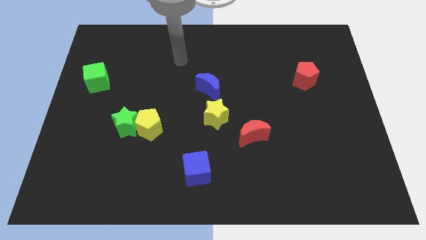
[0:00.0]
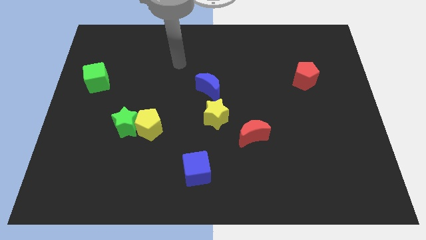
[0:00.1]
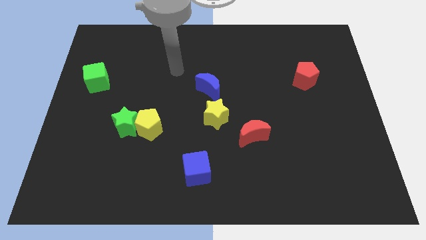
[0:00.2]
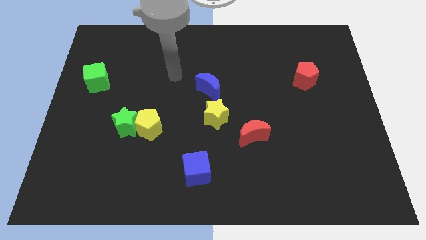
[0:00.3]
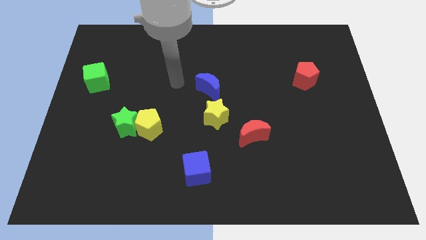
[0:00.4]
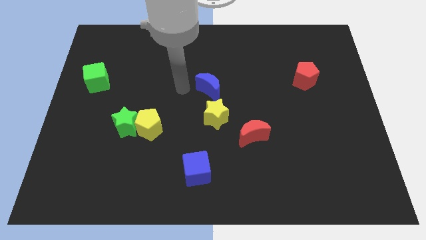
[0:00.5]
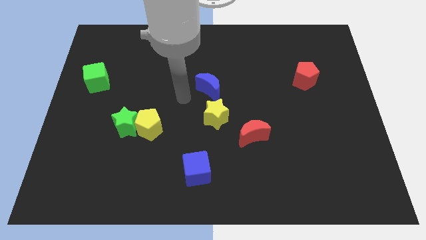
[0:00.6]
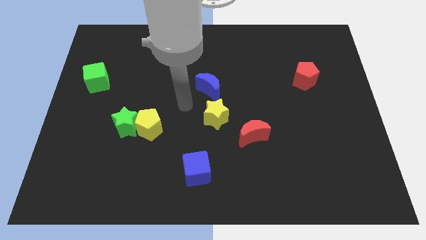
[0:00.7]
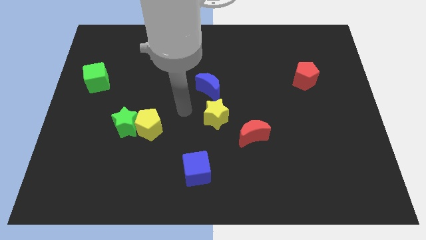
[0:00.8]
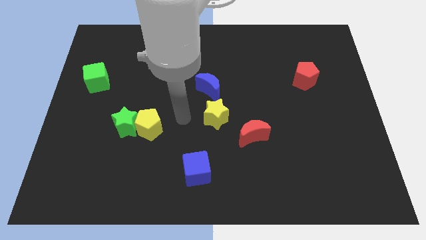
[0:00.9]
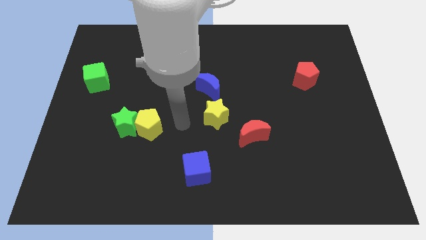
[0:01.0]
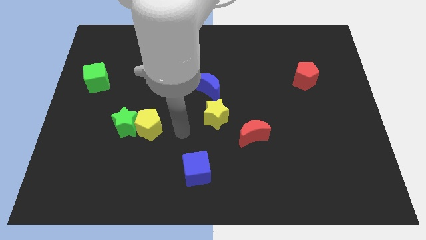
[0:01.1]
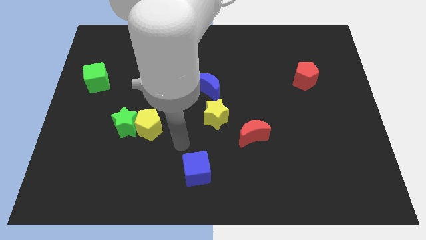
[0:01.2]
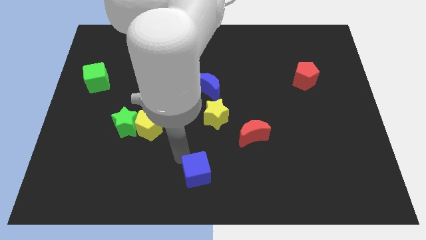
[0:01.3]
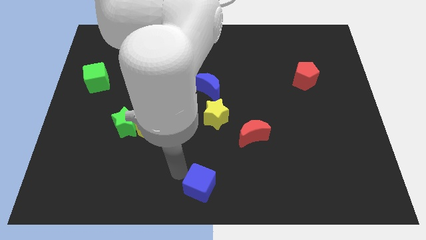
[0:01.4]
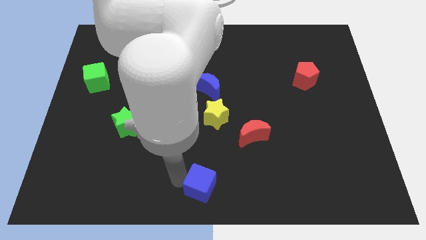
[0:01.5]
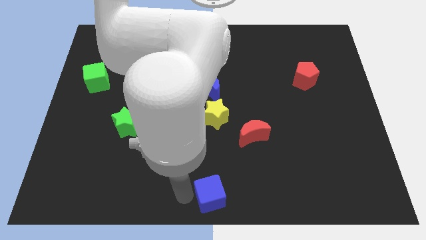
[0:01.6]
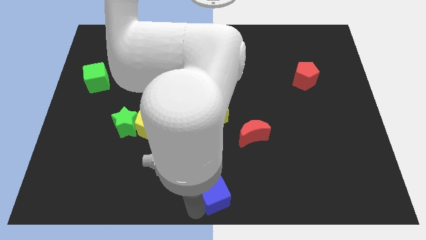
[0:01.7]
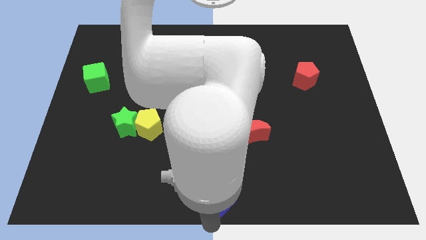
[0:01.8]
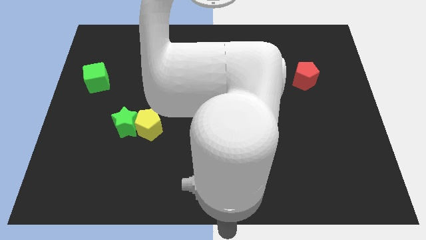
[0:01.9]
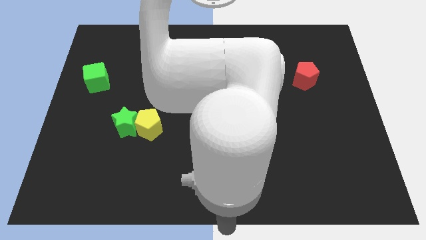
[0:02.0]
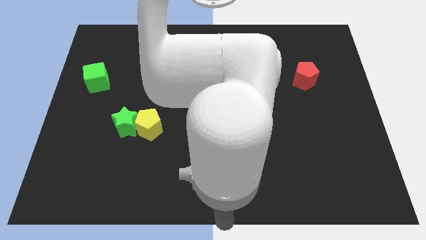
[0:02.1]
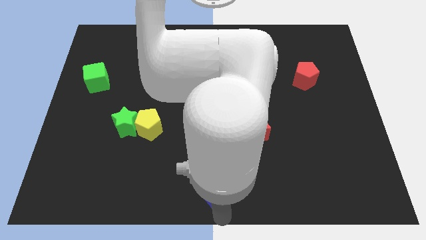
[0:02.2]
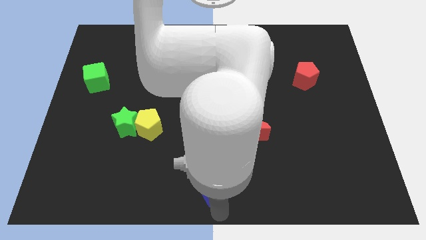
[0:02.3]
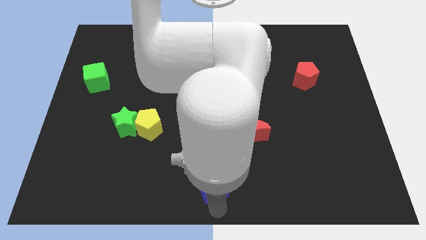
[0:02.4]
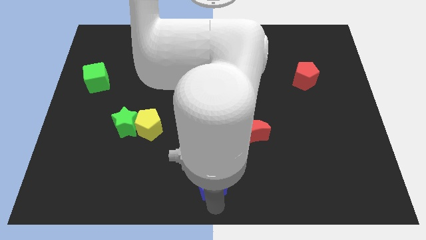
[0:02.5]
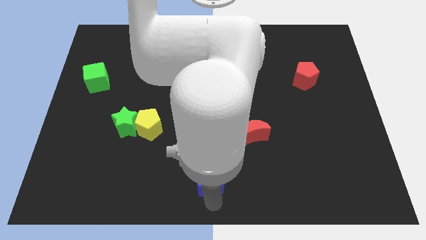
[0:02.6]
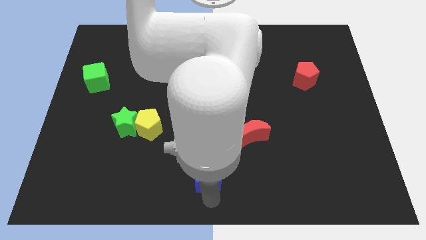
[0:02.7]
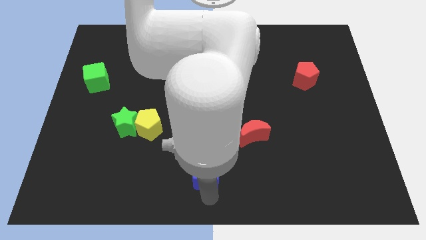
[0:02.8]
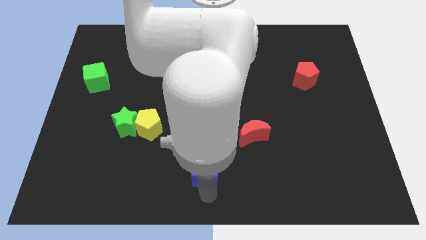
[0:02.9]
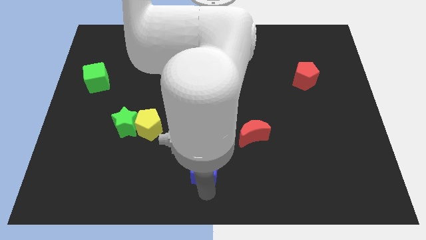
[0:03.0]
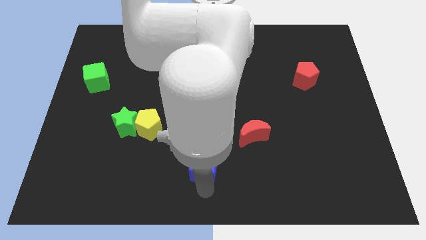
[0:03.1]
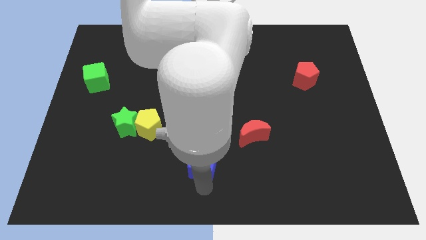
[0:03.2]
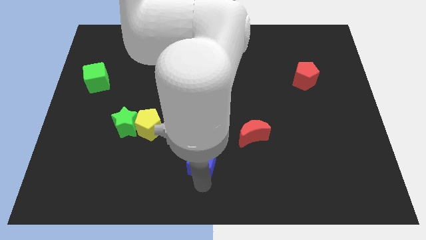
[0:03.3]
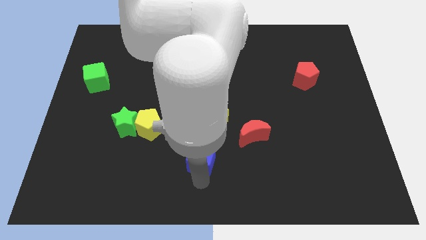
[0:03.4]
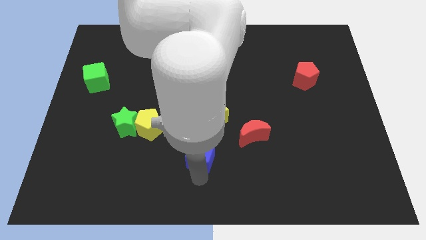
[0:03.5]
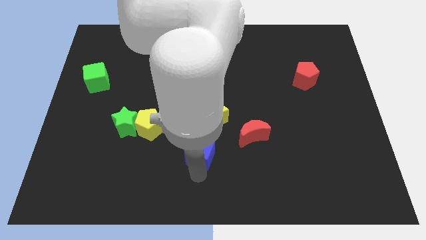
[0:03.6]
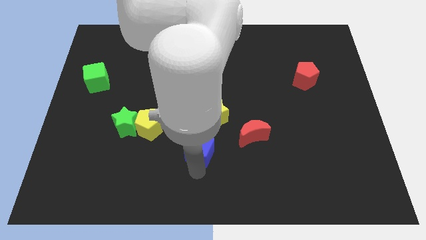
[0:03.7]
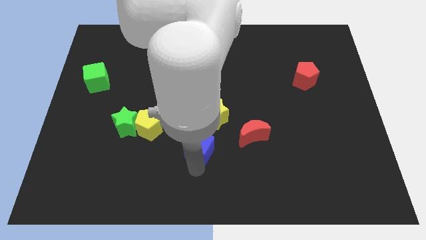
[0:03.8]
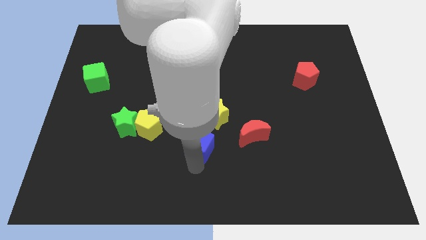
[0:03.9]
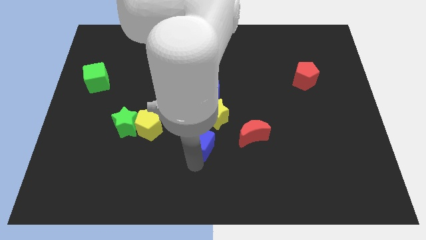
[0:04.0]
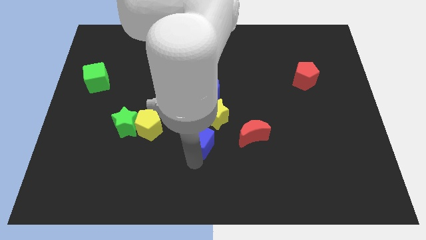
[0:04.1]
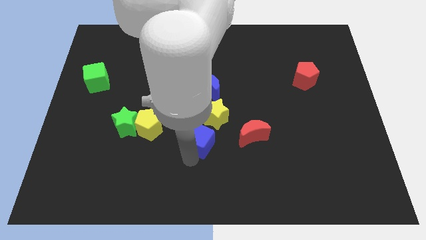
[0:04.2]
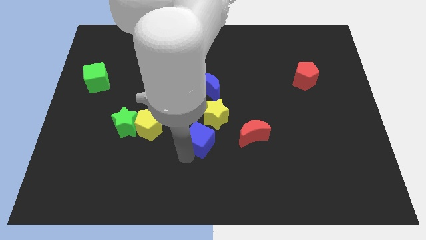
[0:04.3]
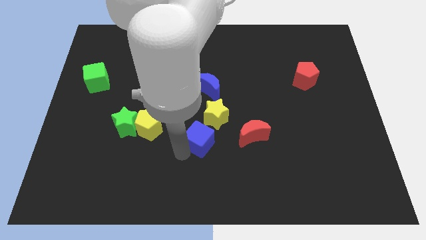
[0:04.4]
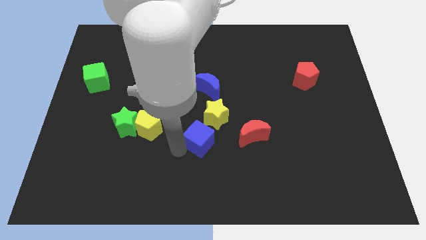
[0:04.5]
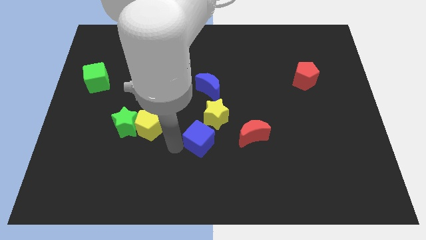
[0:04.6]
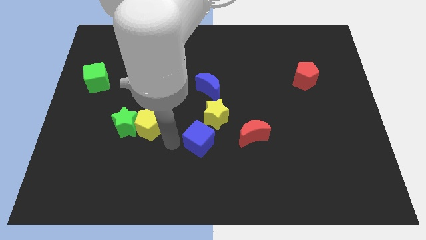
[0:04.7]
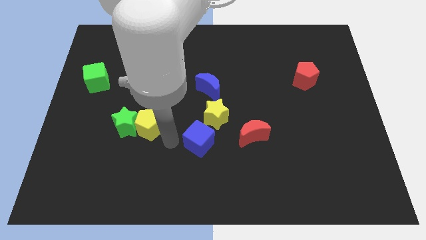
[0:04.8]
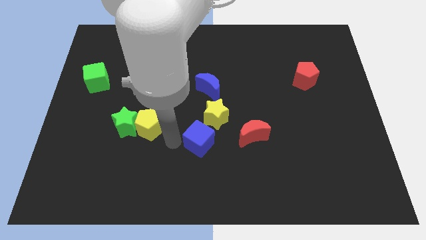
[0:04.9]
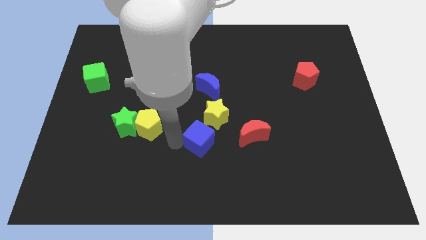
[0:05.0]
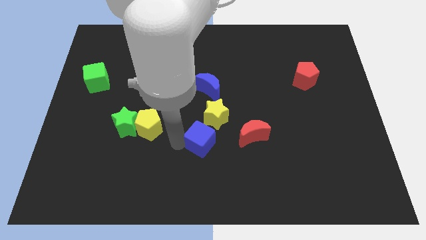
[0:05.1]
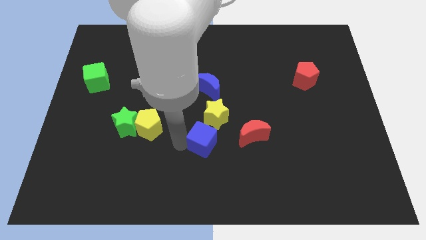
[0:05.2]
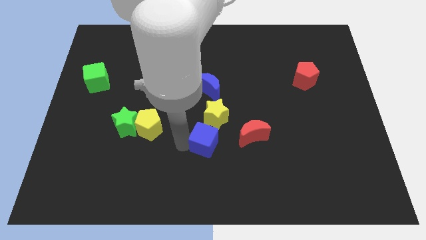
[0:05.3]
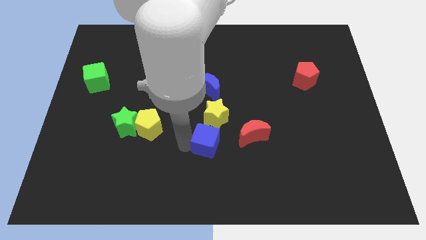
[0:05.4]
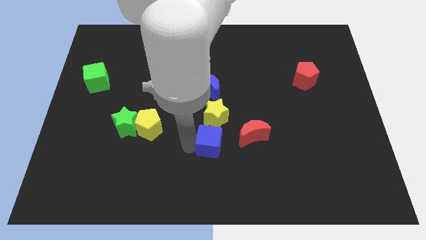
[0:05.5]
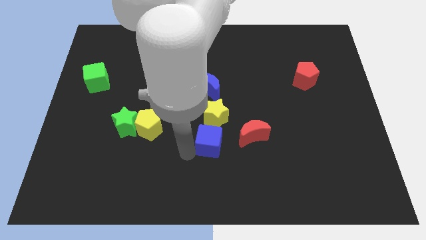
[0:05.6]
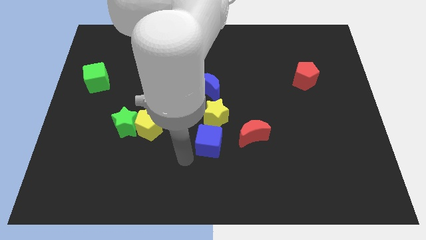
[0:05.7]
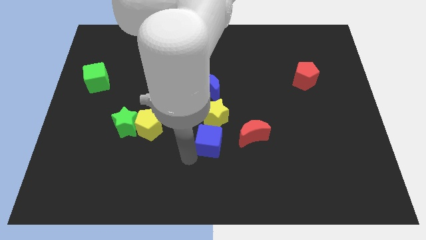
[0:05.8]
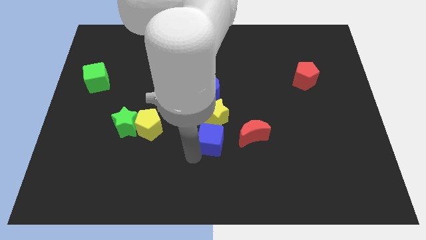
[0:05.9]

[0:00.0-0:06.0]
slightly slide the blue cube diagonally up and right

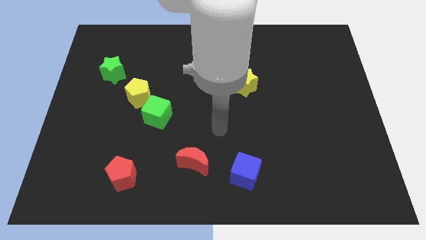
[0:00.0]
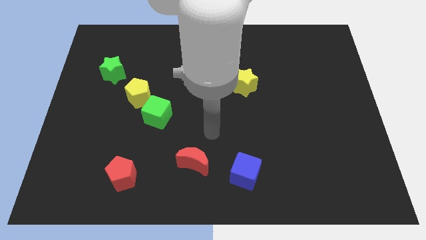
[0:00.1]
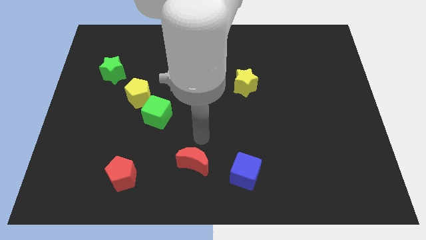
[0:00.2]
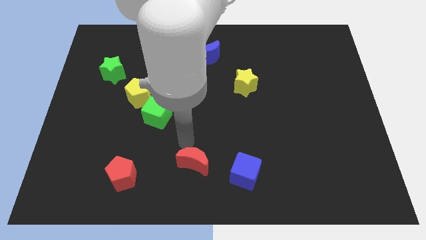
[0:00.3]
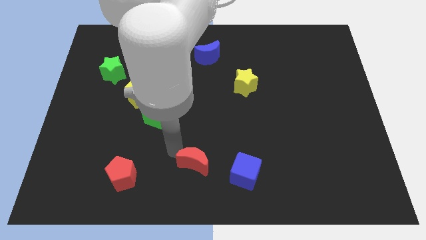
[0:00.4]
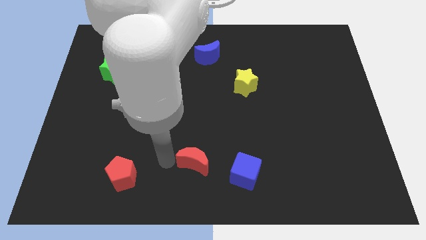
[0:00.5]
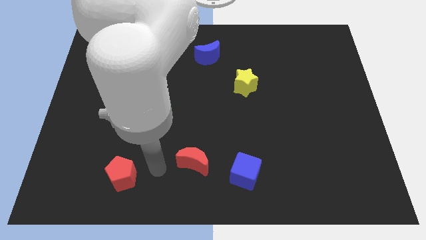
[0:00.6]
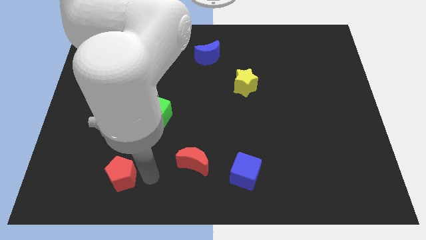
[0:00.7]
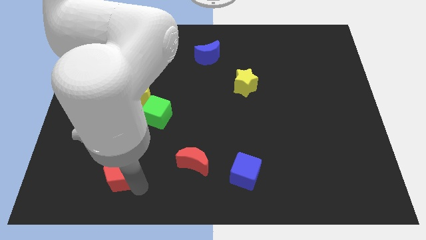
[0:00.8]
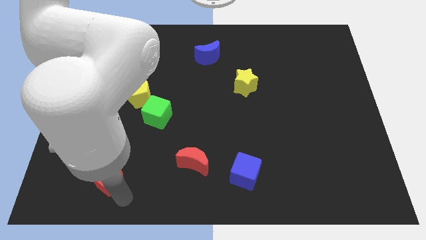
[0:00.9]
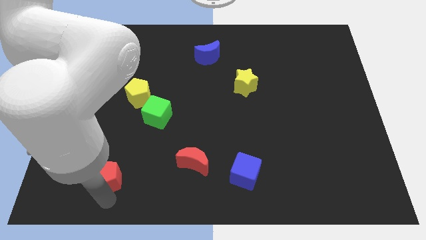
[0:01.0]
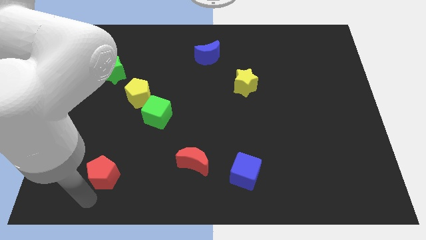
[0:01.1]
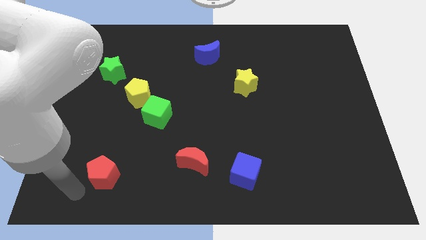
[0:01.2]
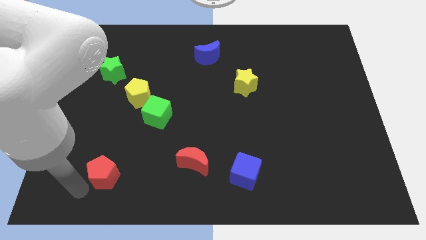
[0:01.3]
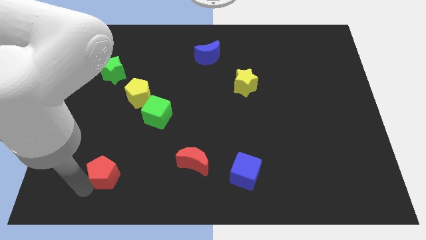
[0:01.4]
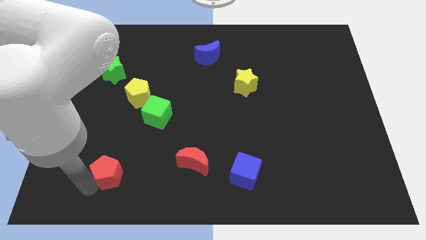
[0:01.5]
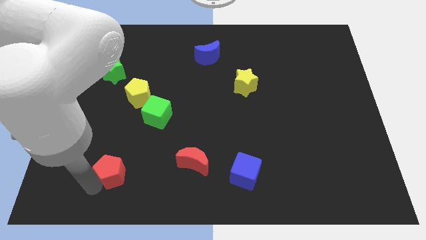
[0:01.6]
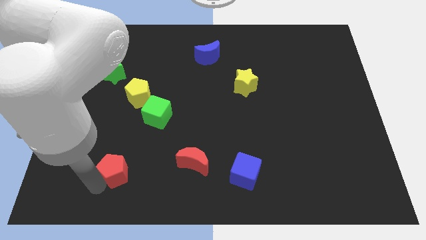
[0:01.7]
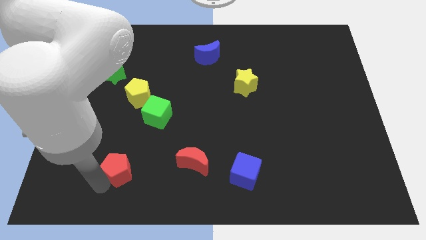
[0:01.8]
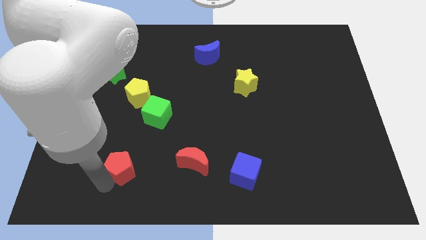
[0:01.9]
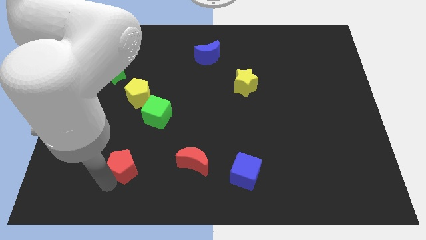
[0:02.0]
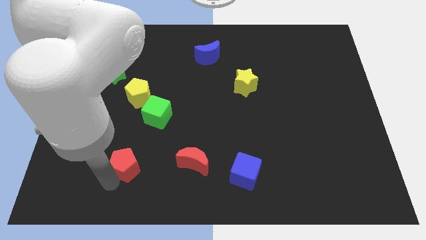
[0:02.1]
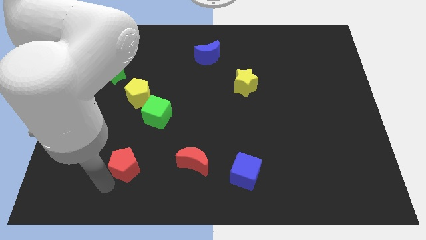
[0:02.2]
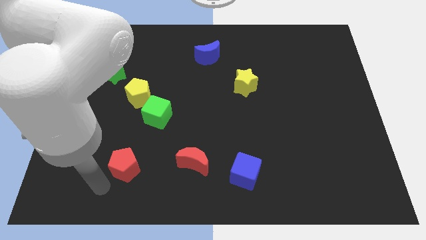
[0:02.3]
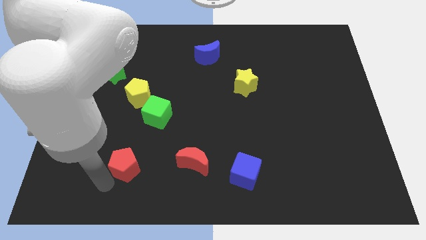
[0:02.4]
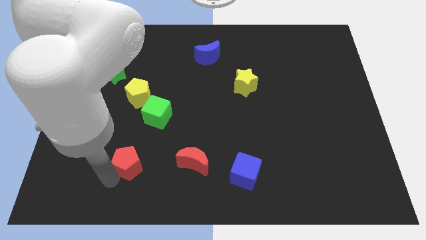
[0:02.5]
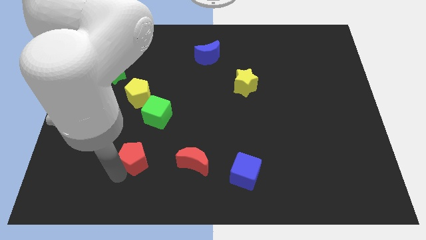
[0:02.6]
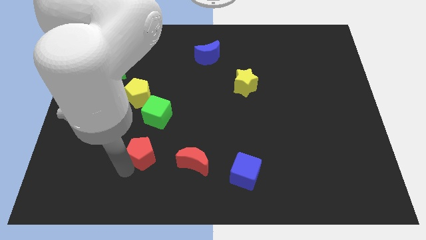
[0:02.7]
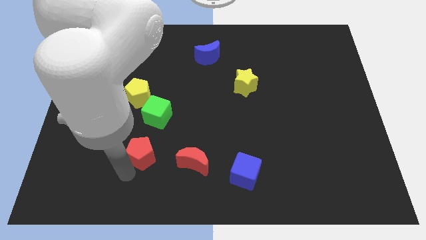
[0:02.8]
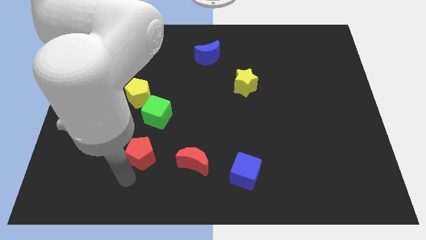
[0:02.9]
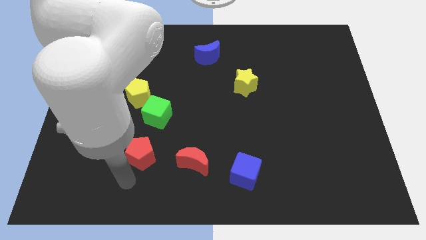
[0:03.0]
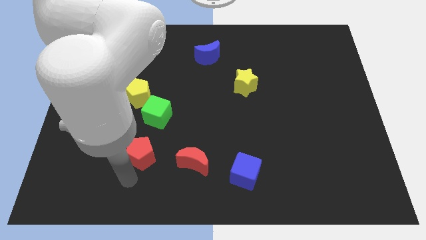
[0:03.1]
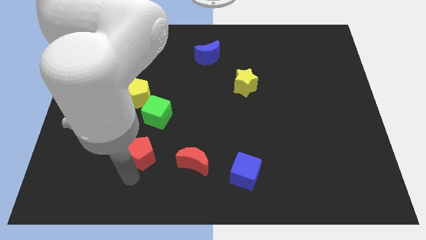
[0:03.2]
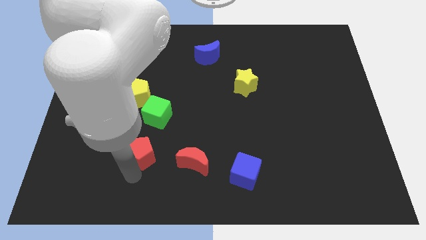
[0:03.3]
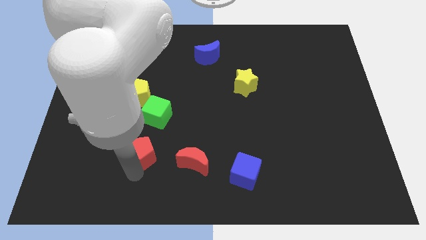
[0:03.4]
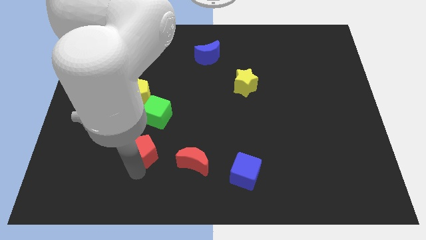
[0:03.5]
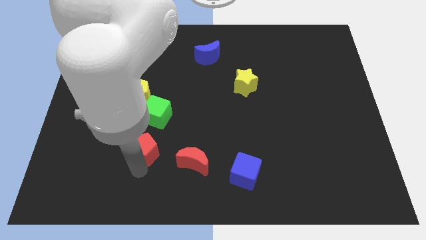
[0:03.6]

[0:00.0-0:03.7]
move the red pentagon up and to the right diagonally slightly
